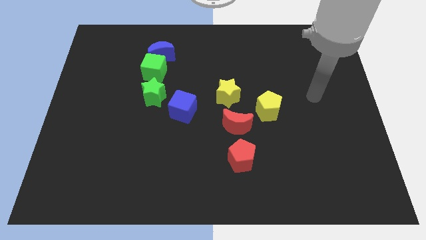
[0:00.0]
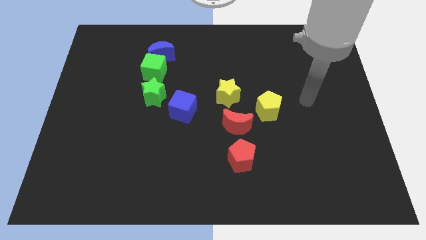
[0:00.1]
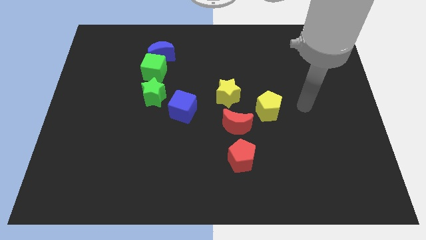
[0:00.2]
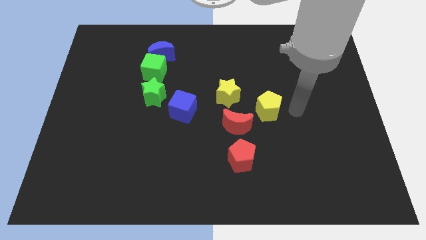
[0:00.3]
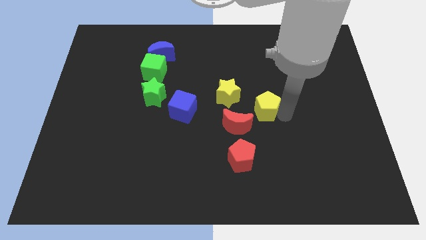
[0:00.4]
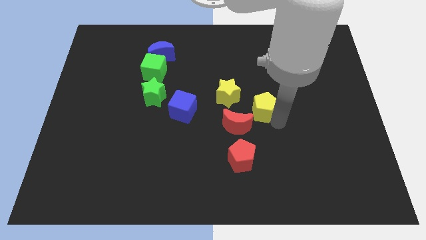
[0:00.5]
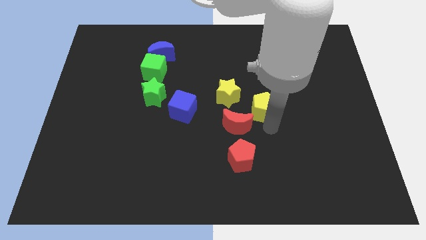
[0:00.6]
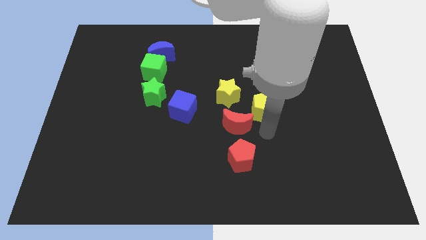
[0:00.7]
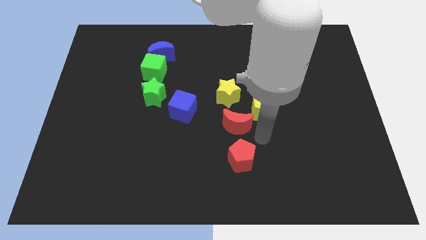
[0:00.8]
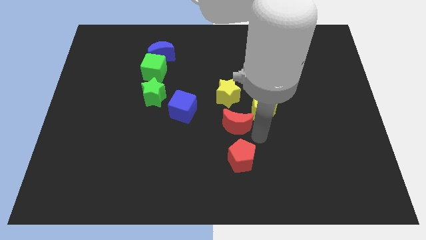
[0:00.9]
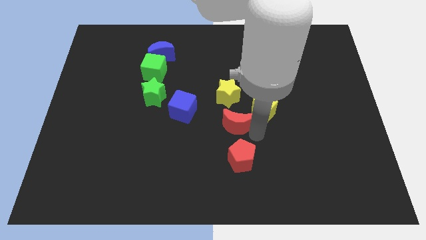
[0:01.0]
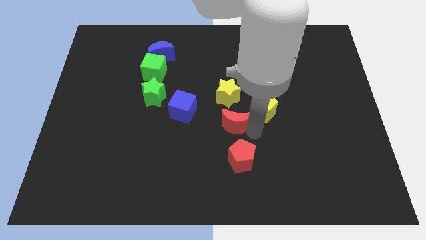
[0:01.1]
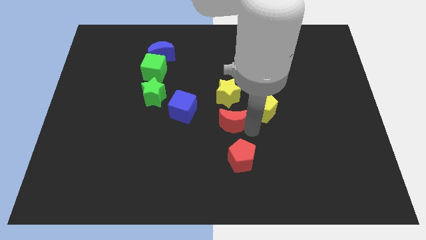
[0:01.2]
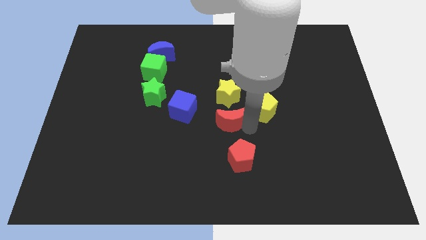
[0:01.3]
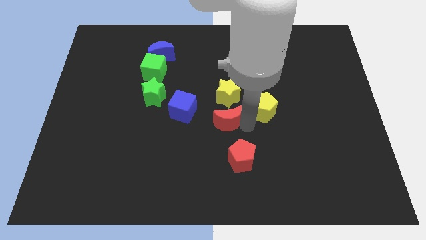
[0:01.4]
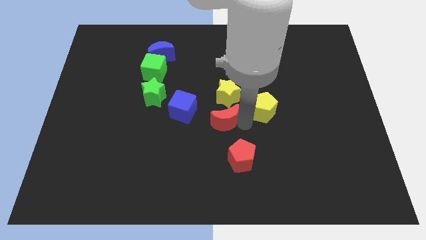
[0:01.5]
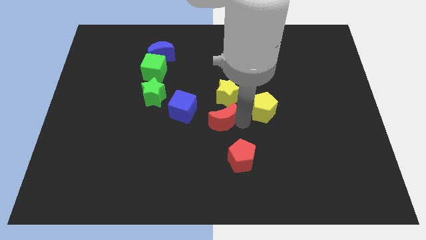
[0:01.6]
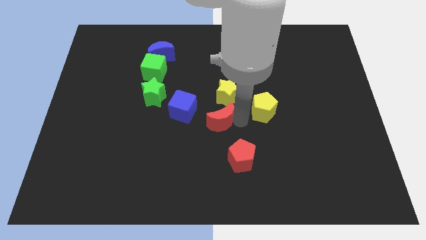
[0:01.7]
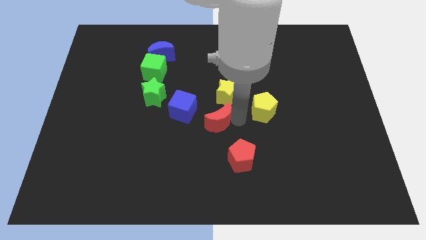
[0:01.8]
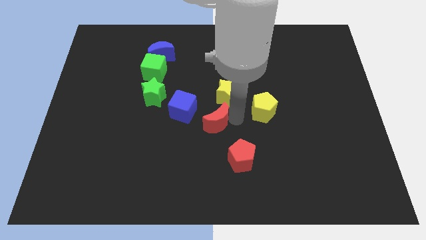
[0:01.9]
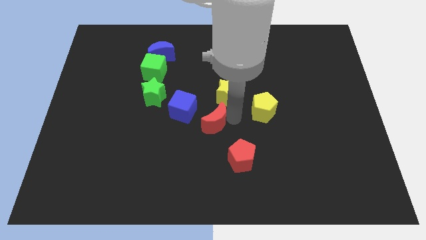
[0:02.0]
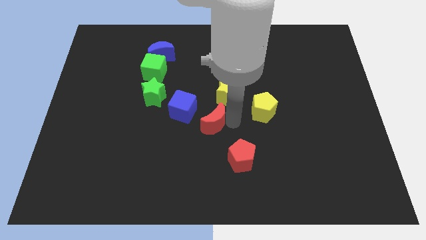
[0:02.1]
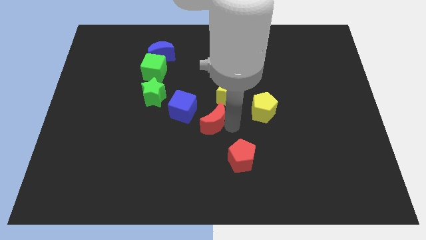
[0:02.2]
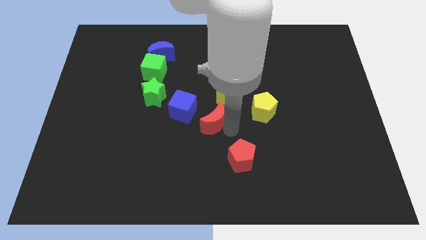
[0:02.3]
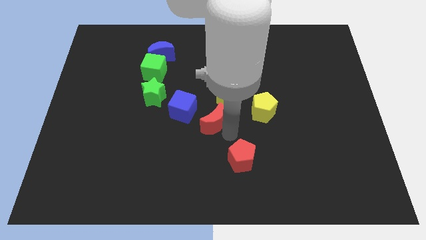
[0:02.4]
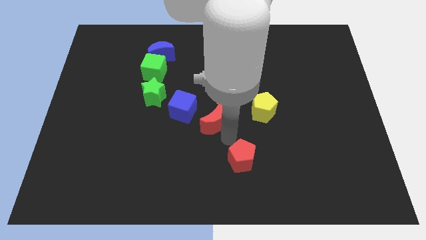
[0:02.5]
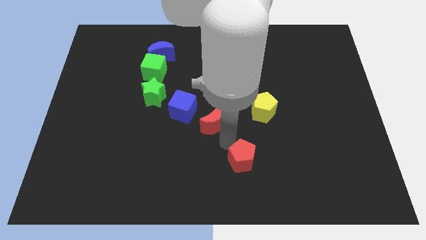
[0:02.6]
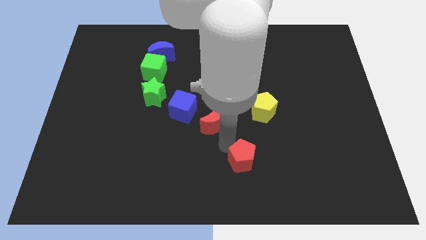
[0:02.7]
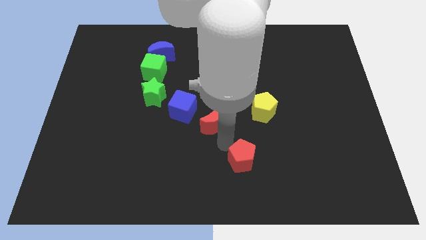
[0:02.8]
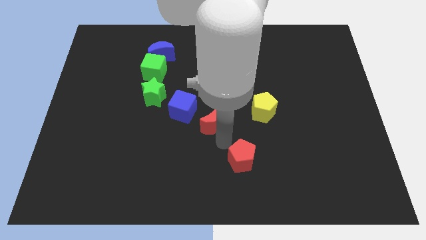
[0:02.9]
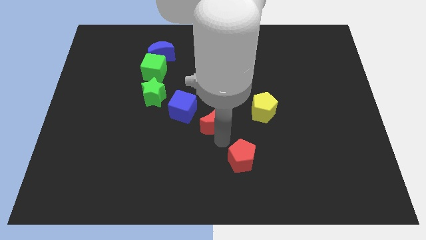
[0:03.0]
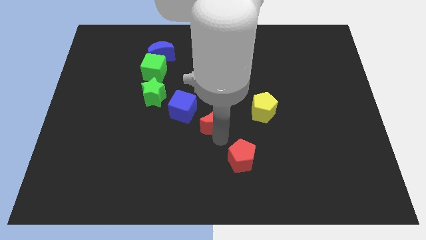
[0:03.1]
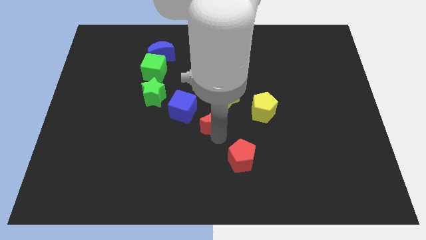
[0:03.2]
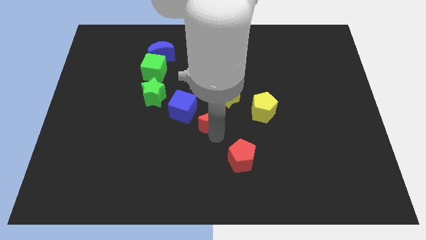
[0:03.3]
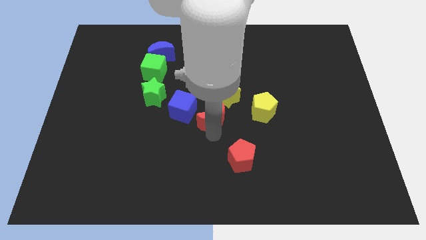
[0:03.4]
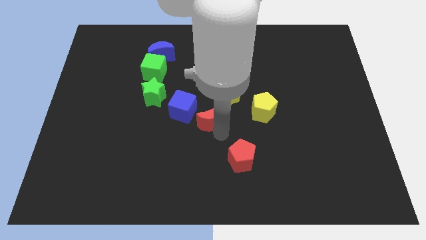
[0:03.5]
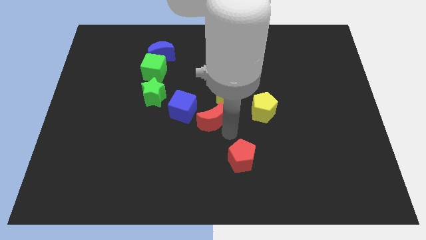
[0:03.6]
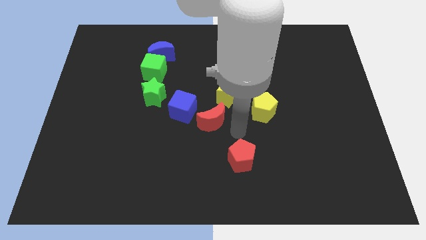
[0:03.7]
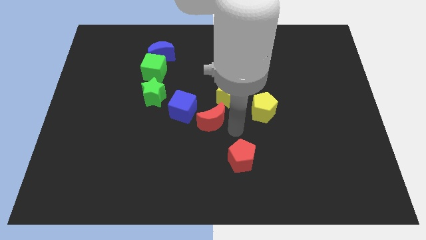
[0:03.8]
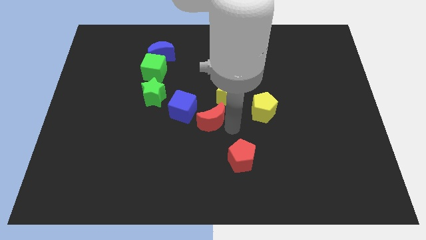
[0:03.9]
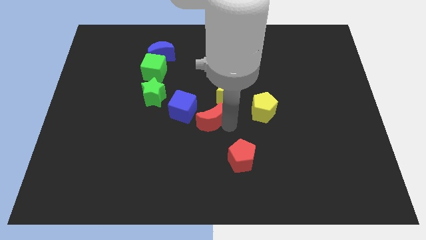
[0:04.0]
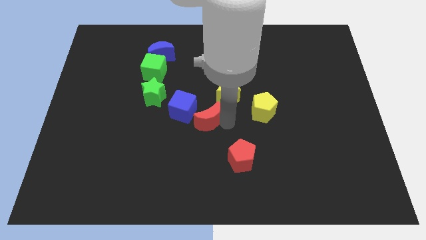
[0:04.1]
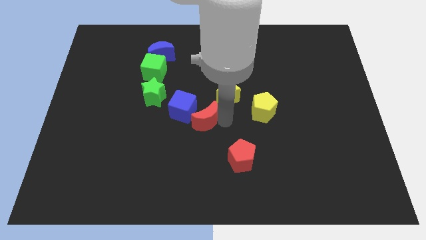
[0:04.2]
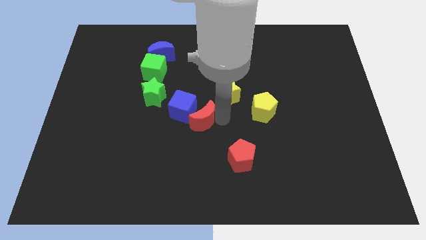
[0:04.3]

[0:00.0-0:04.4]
slide the red moon close to the blue cube

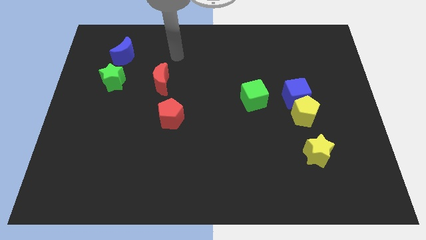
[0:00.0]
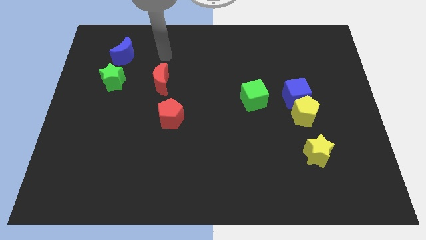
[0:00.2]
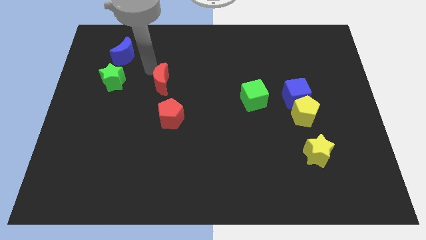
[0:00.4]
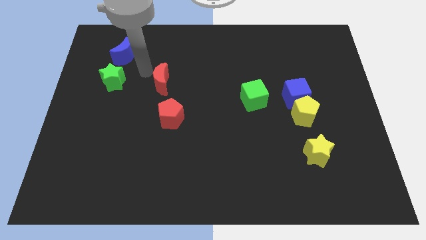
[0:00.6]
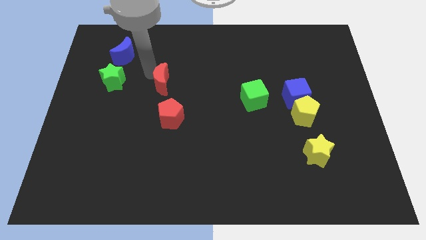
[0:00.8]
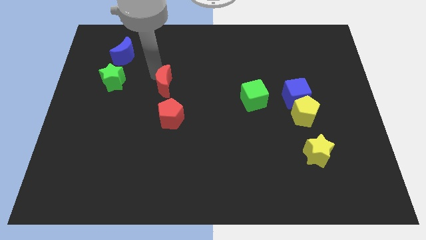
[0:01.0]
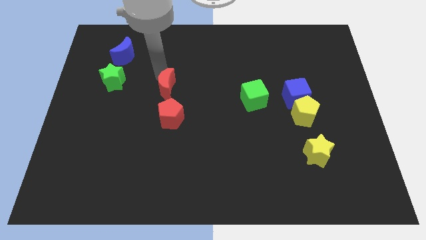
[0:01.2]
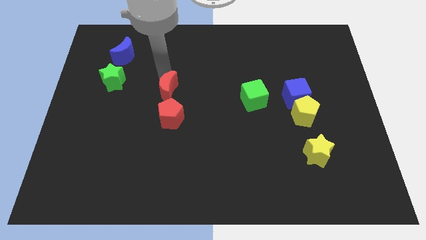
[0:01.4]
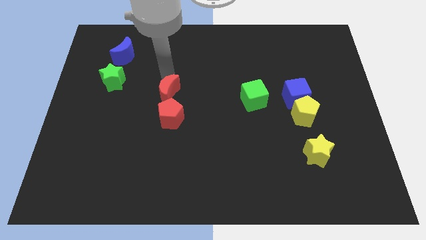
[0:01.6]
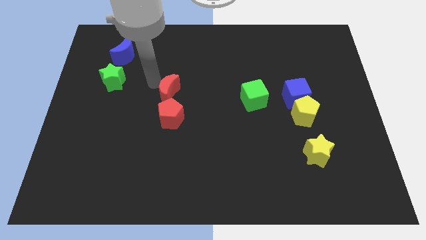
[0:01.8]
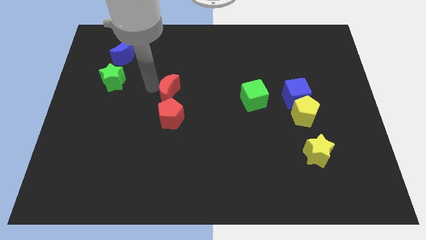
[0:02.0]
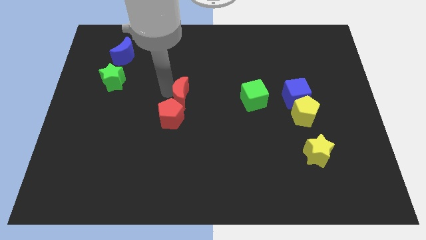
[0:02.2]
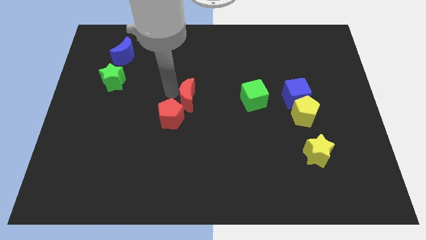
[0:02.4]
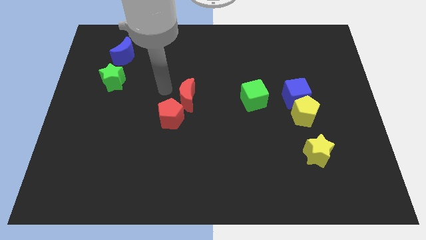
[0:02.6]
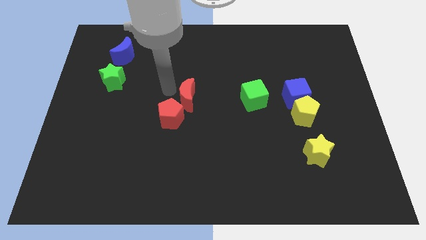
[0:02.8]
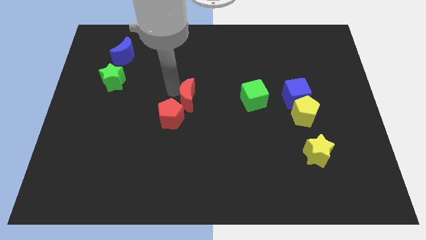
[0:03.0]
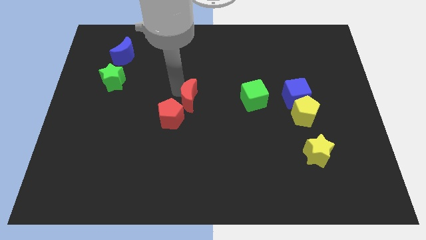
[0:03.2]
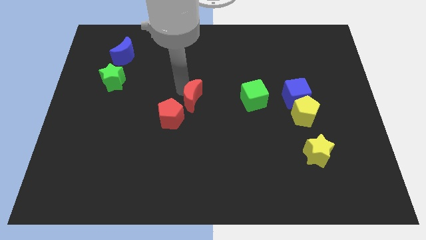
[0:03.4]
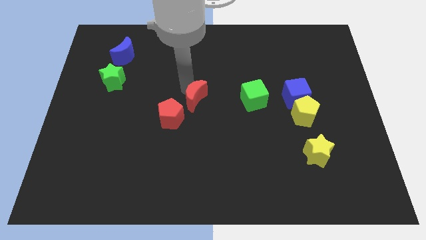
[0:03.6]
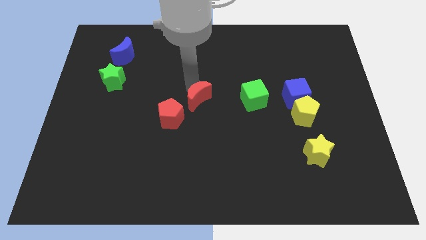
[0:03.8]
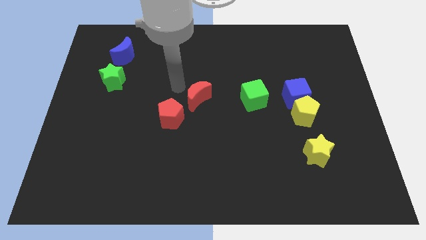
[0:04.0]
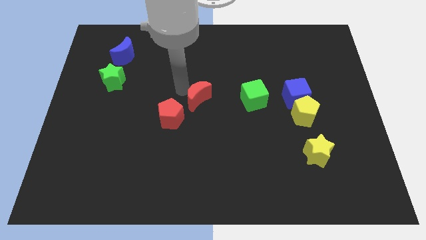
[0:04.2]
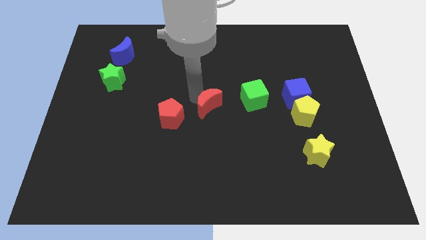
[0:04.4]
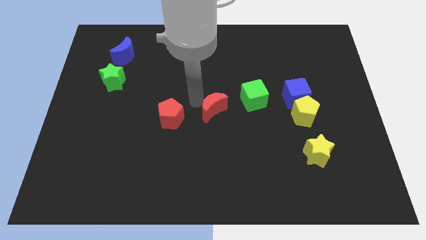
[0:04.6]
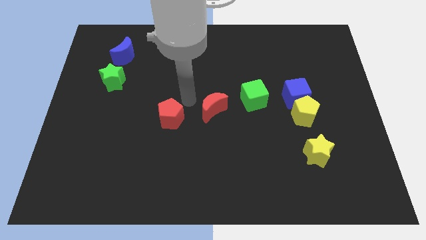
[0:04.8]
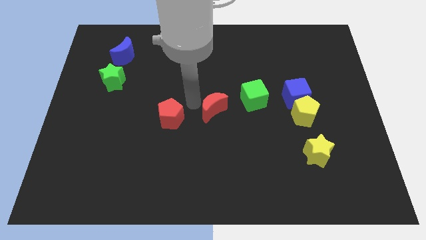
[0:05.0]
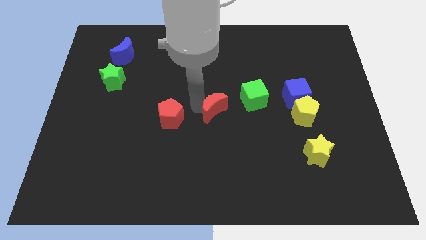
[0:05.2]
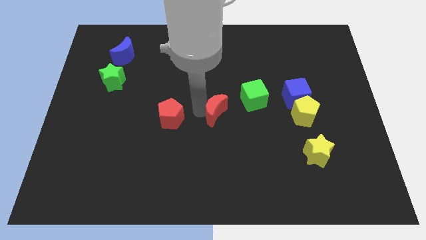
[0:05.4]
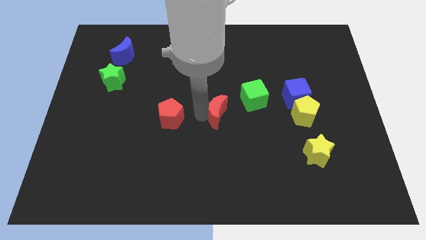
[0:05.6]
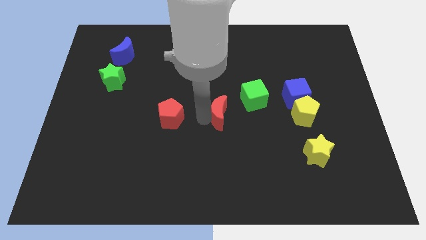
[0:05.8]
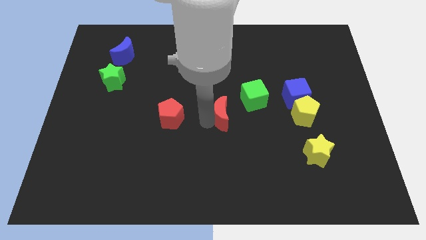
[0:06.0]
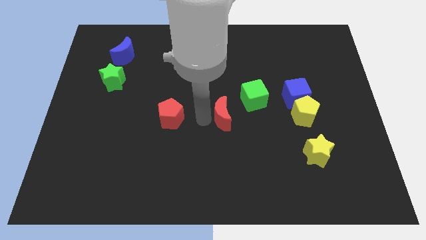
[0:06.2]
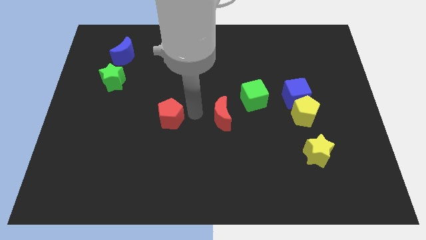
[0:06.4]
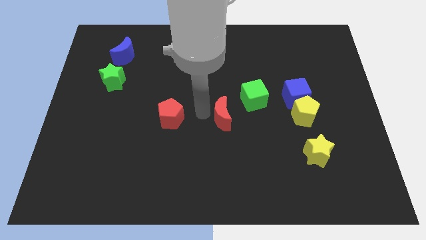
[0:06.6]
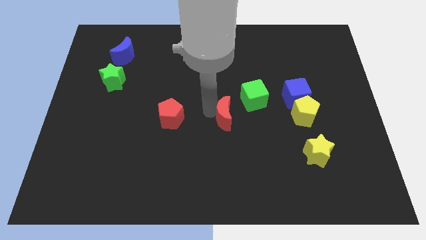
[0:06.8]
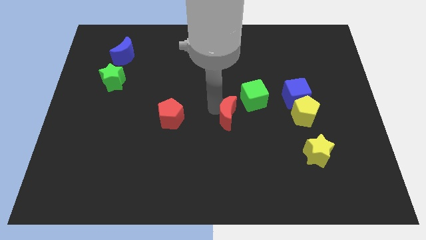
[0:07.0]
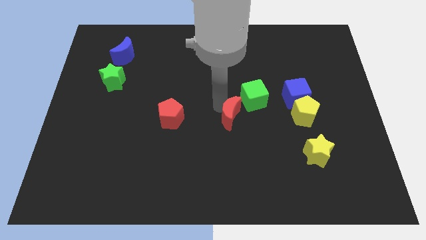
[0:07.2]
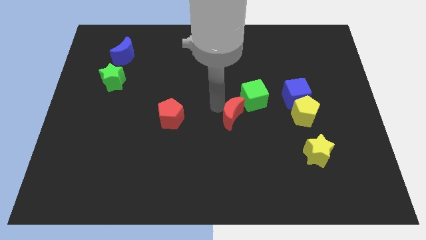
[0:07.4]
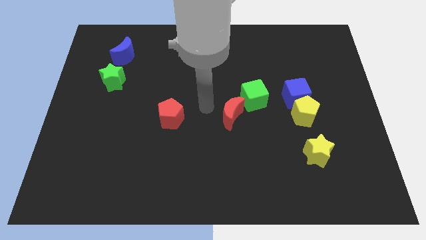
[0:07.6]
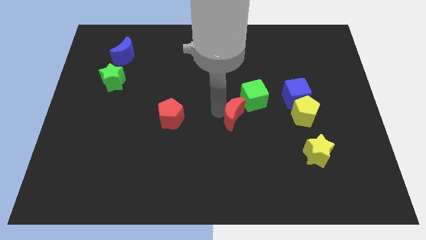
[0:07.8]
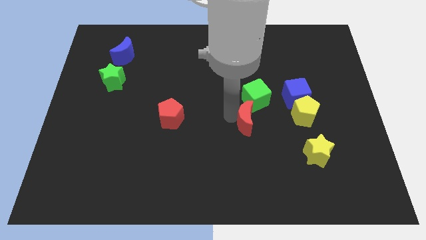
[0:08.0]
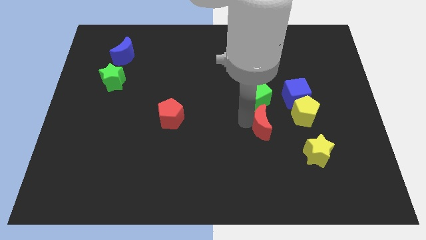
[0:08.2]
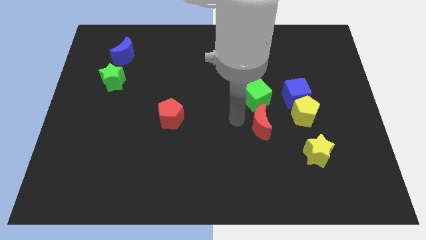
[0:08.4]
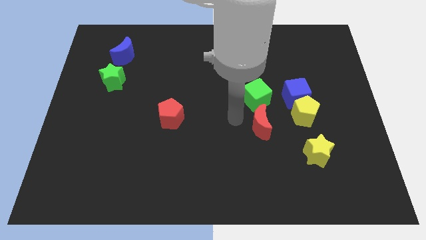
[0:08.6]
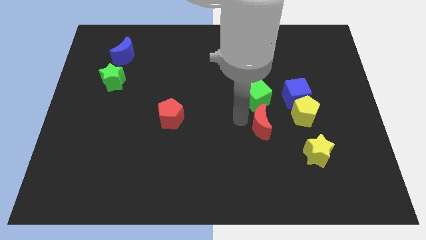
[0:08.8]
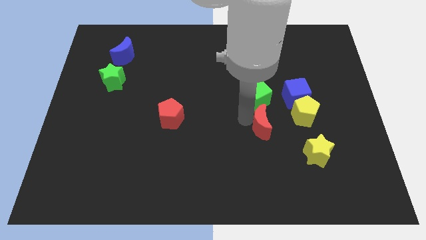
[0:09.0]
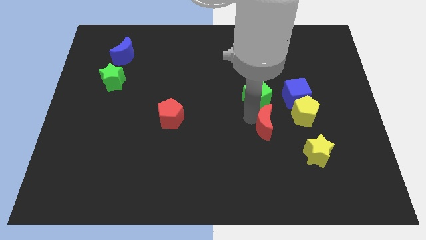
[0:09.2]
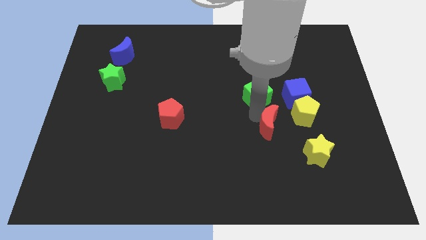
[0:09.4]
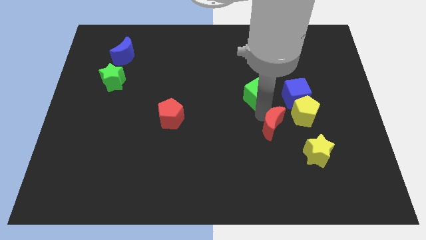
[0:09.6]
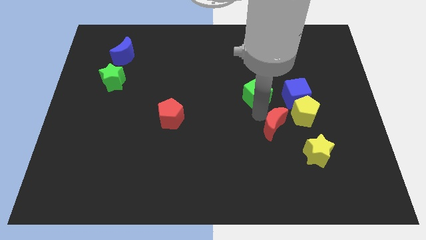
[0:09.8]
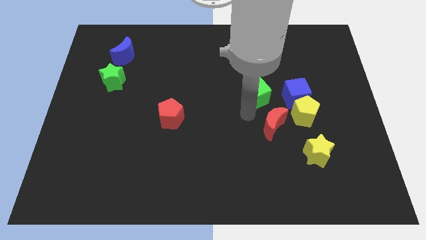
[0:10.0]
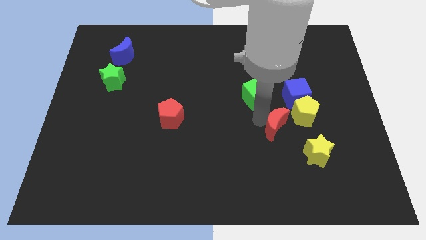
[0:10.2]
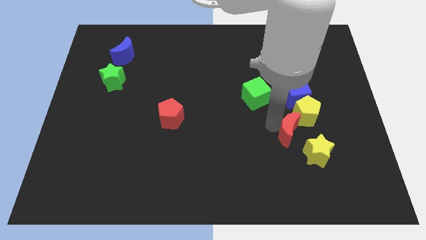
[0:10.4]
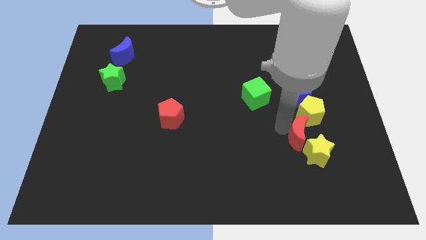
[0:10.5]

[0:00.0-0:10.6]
push the red moon close to the yellow star
